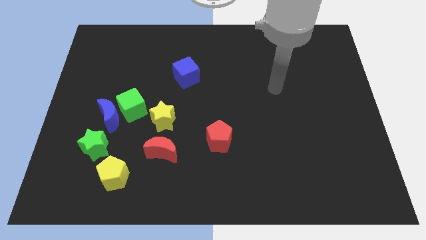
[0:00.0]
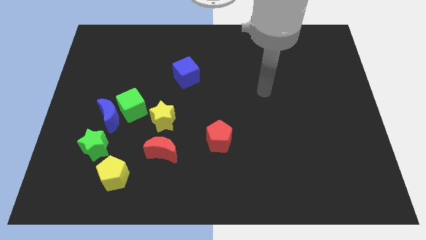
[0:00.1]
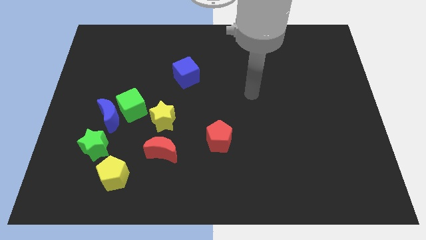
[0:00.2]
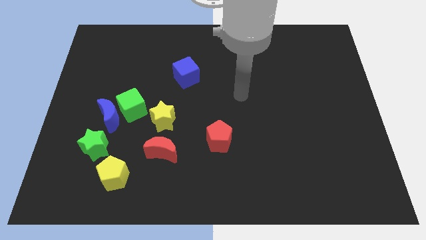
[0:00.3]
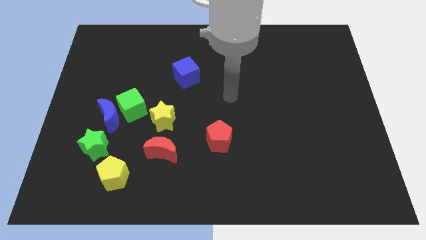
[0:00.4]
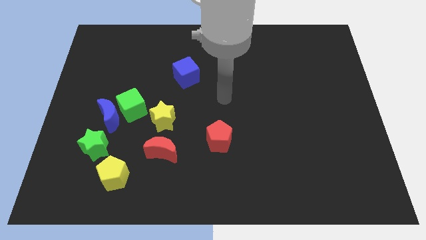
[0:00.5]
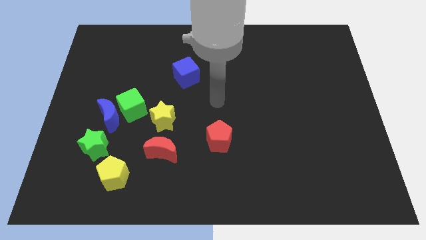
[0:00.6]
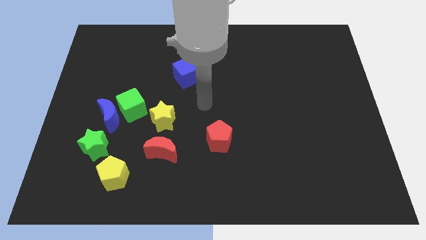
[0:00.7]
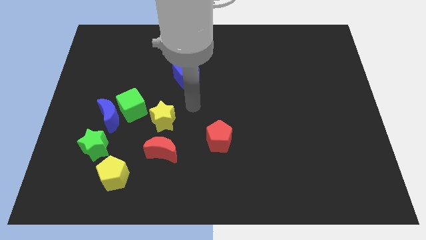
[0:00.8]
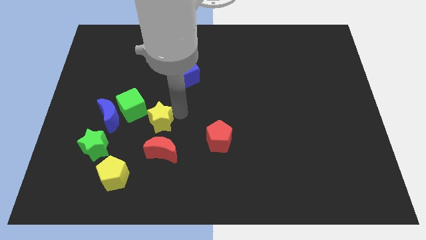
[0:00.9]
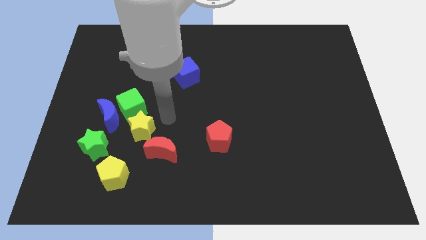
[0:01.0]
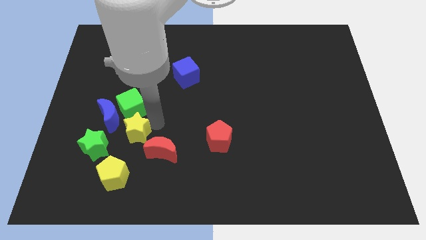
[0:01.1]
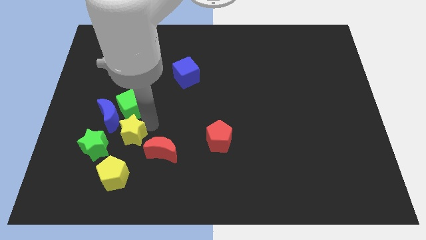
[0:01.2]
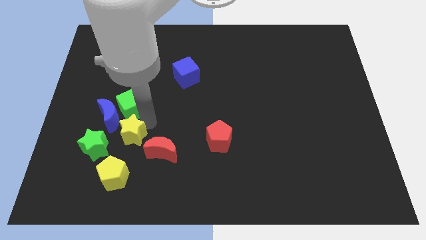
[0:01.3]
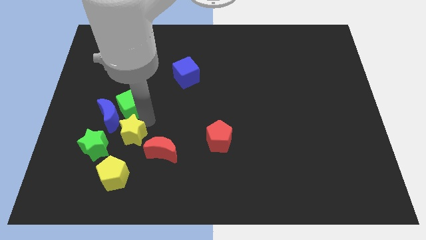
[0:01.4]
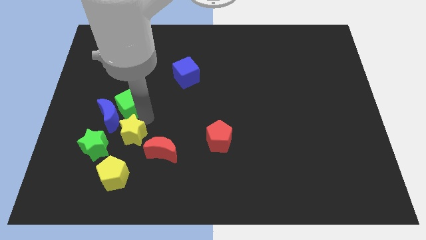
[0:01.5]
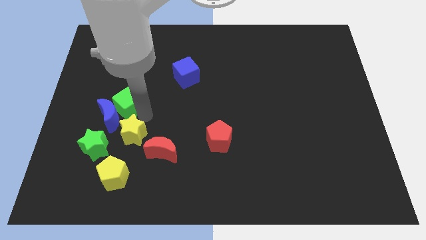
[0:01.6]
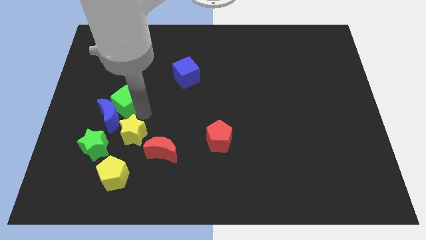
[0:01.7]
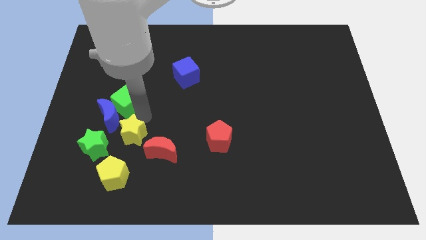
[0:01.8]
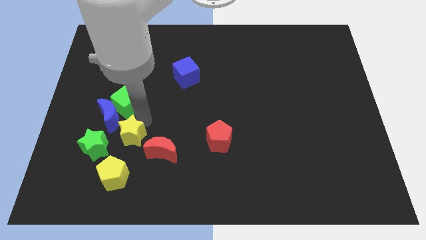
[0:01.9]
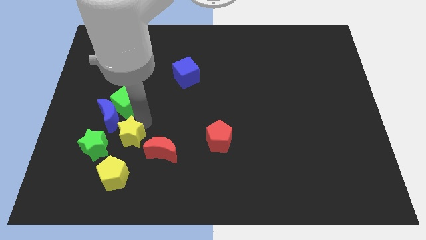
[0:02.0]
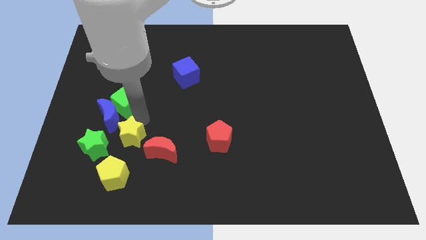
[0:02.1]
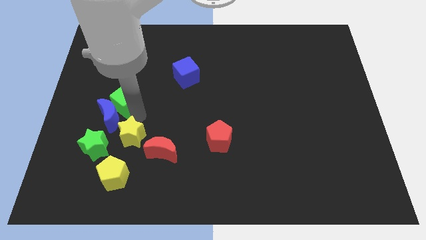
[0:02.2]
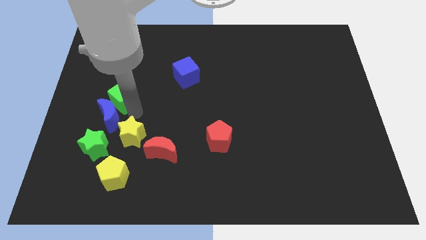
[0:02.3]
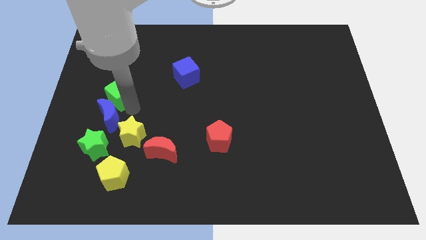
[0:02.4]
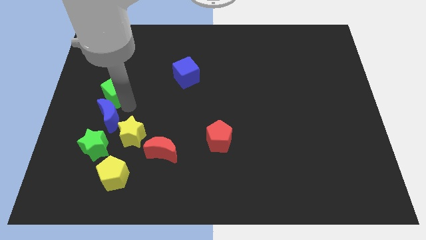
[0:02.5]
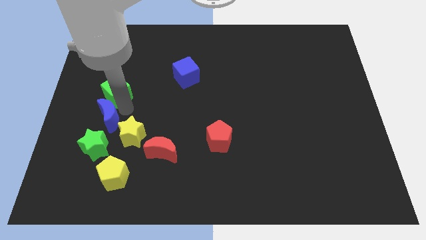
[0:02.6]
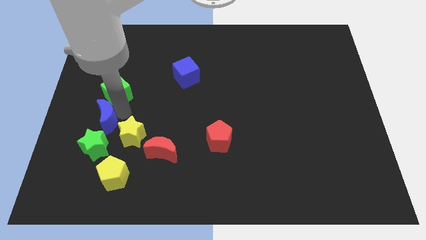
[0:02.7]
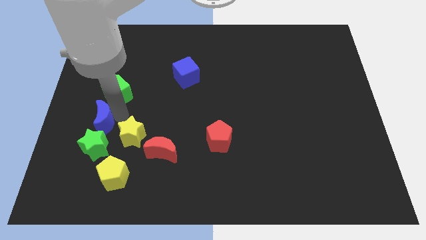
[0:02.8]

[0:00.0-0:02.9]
separate the green cube from the blue moon and yellow star

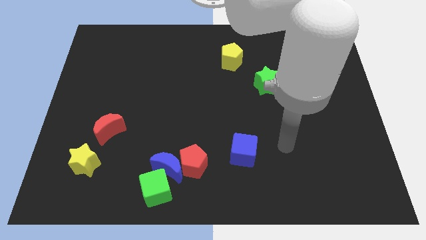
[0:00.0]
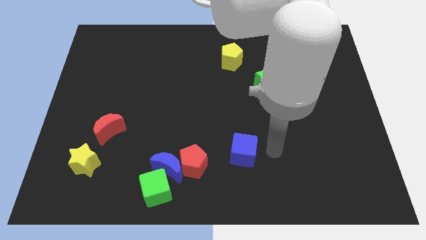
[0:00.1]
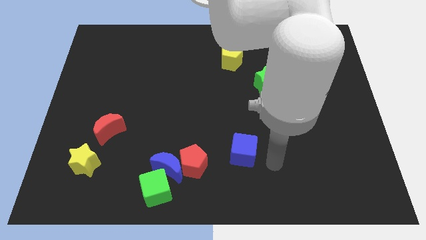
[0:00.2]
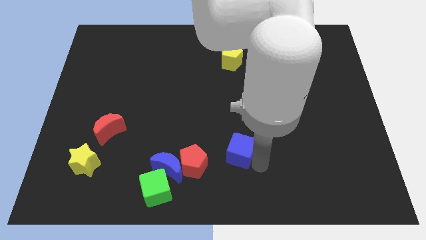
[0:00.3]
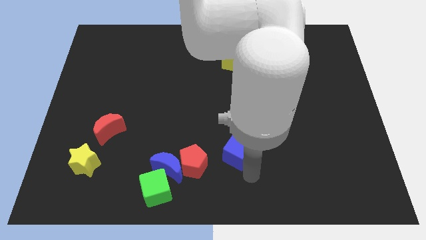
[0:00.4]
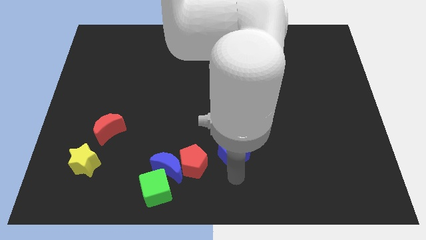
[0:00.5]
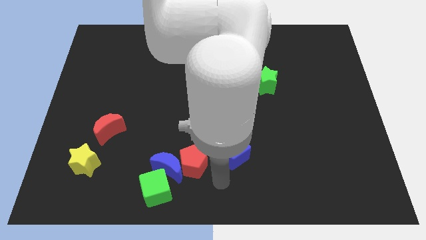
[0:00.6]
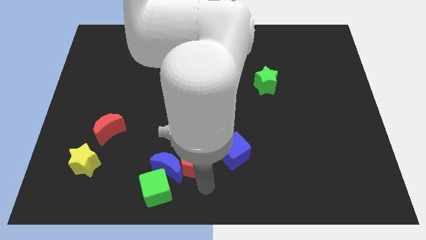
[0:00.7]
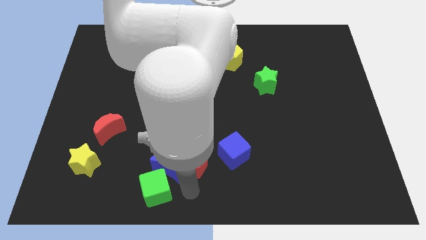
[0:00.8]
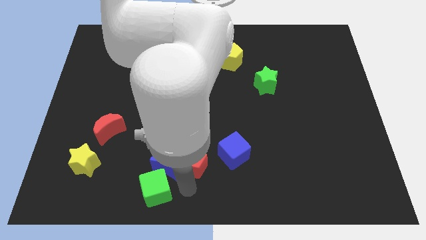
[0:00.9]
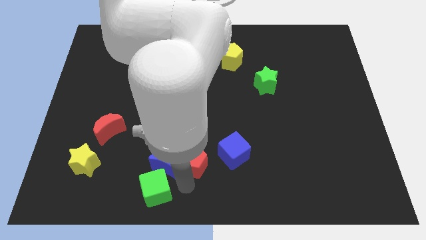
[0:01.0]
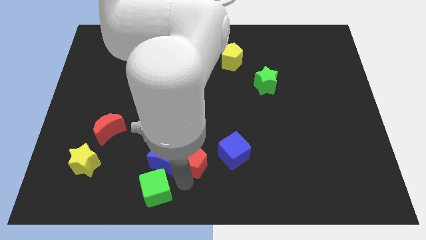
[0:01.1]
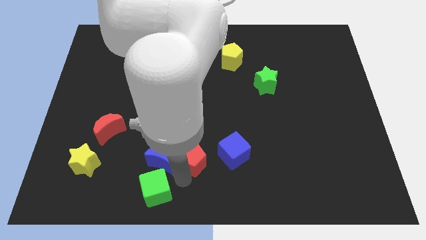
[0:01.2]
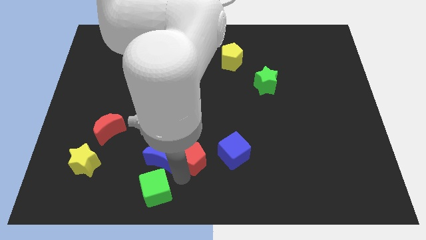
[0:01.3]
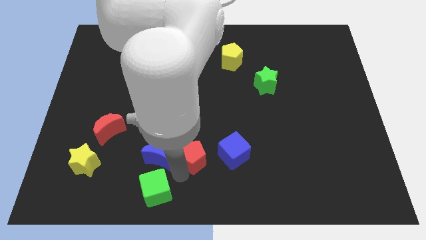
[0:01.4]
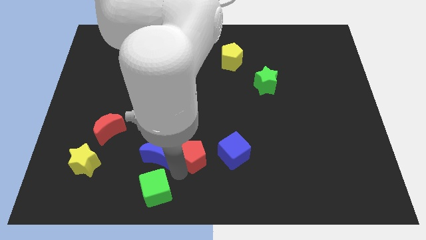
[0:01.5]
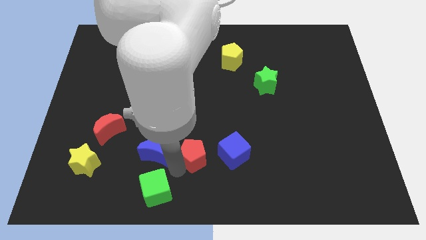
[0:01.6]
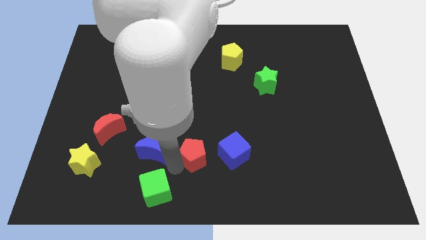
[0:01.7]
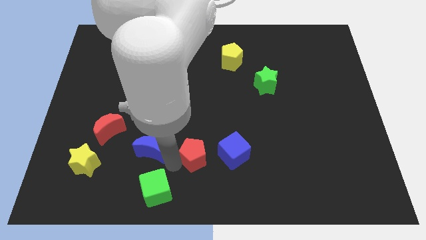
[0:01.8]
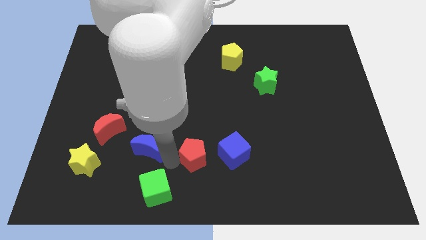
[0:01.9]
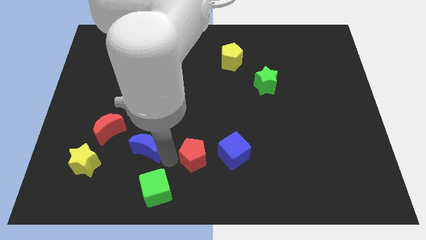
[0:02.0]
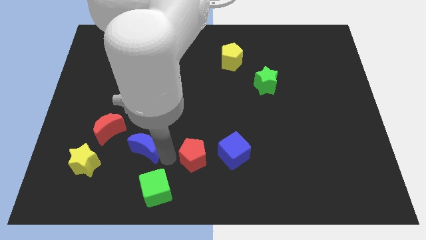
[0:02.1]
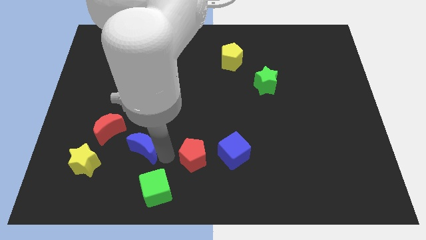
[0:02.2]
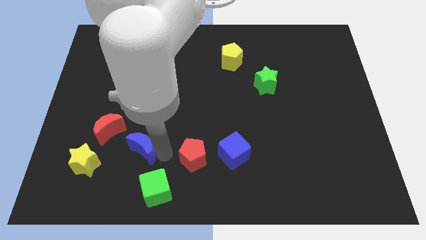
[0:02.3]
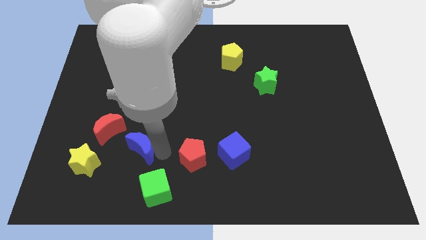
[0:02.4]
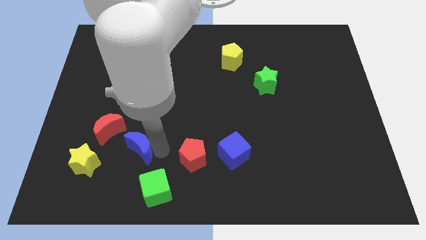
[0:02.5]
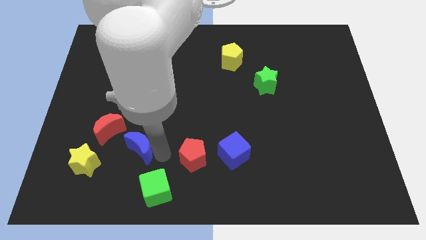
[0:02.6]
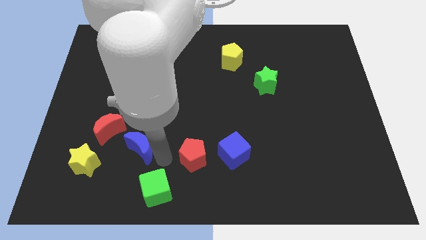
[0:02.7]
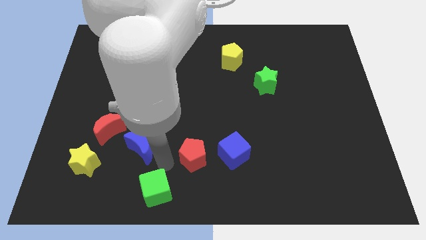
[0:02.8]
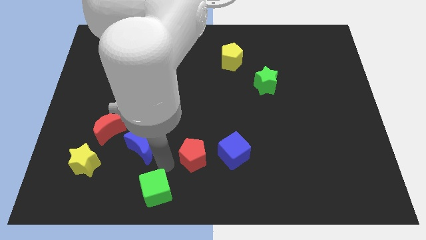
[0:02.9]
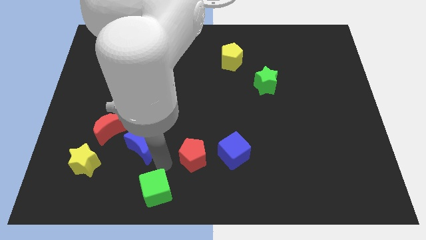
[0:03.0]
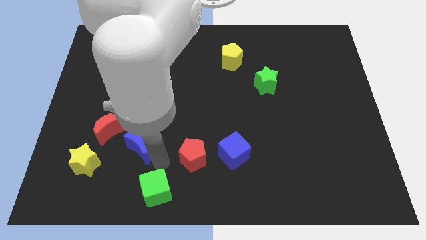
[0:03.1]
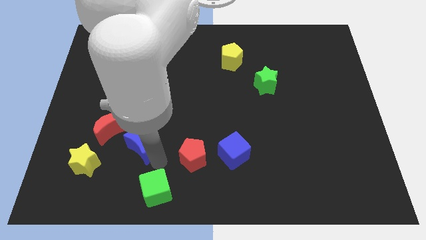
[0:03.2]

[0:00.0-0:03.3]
move the blue moon away from the red pentagon and green cube

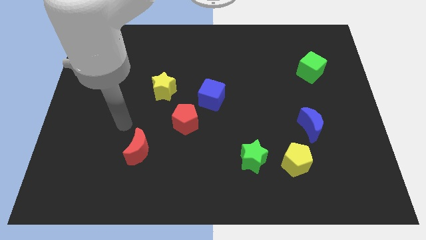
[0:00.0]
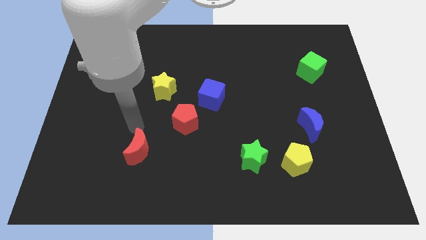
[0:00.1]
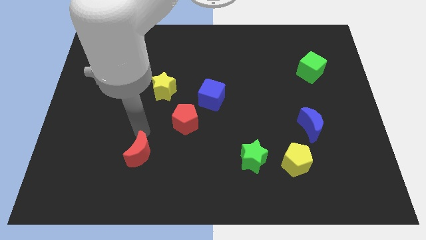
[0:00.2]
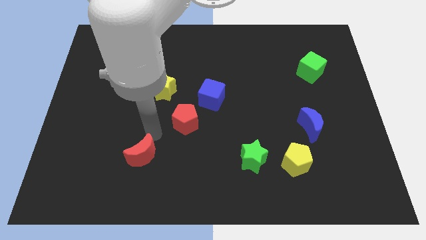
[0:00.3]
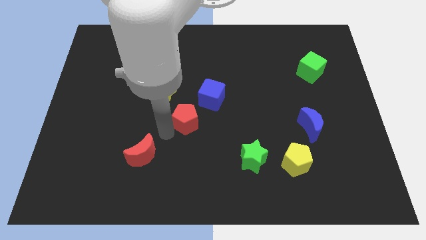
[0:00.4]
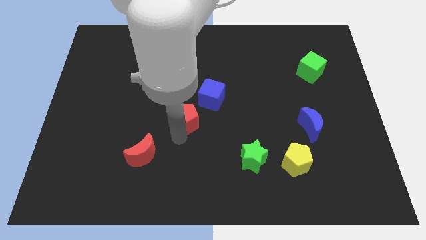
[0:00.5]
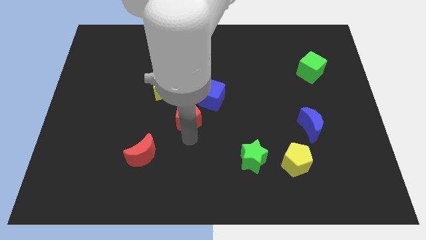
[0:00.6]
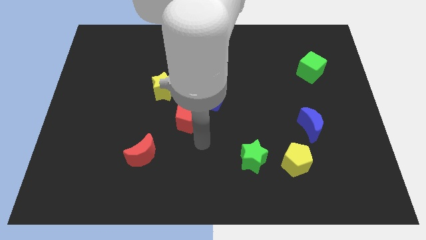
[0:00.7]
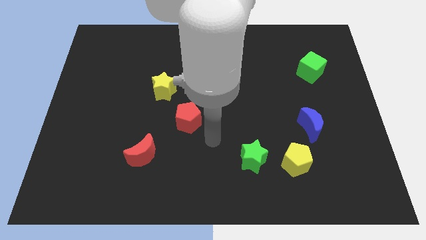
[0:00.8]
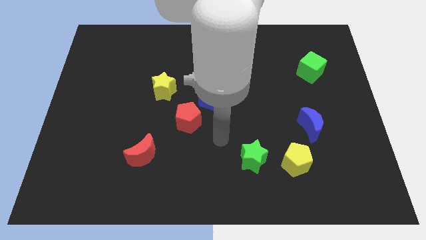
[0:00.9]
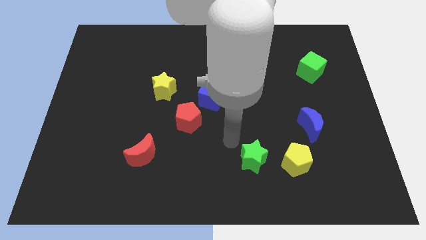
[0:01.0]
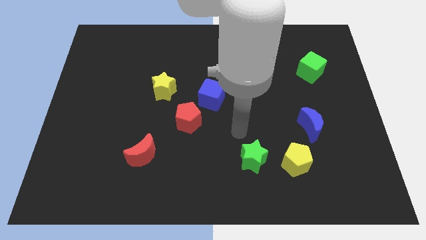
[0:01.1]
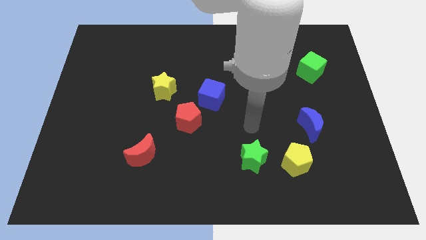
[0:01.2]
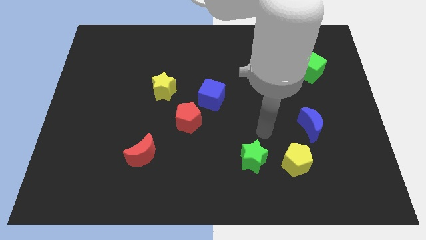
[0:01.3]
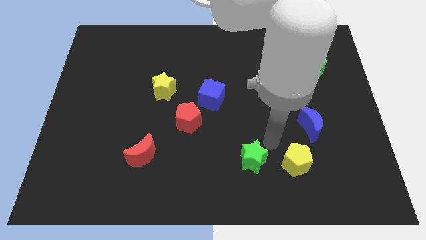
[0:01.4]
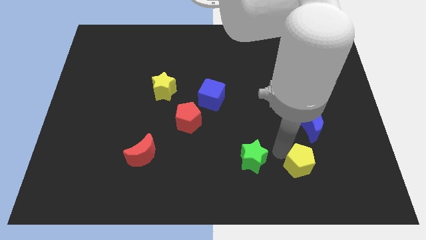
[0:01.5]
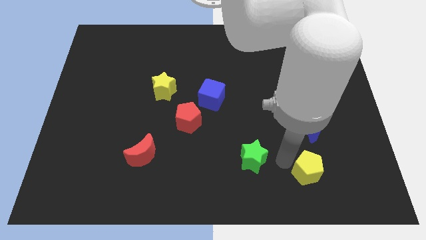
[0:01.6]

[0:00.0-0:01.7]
pull the green star apart from the yellow pentagon

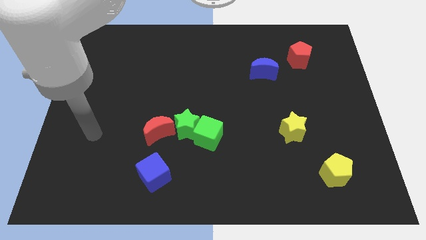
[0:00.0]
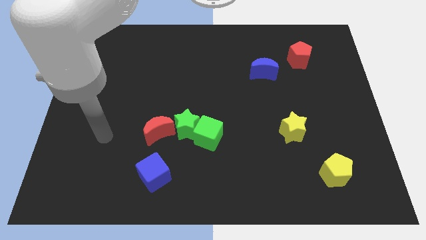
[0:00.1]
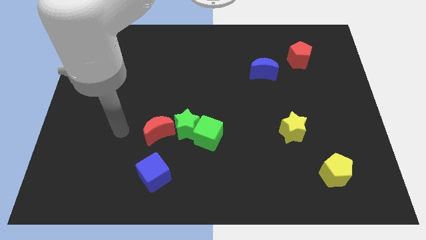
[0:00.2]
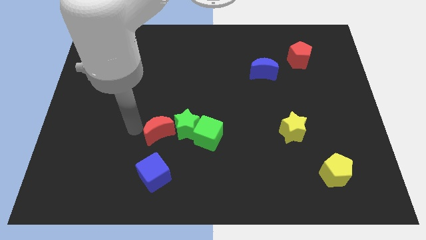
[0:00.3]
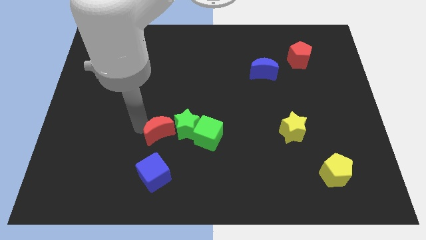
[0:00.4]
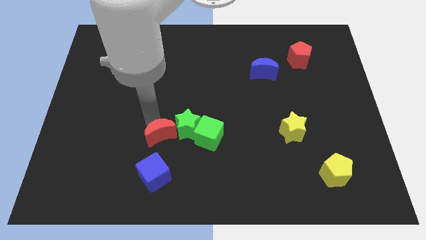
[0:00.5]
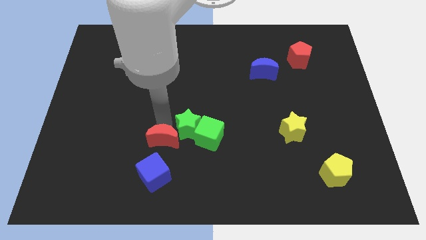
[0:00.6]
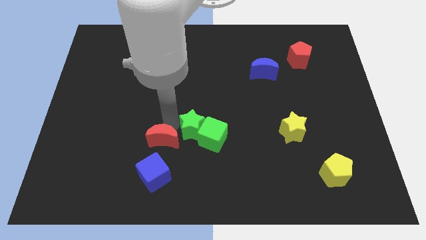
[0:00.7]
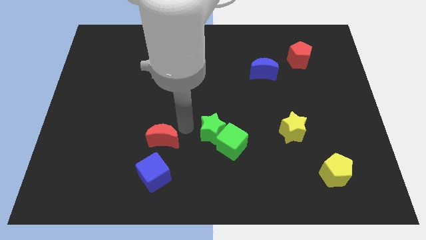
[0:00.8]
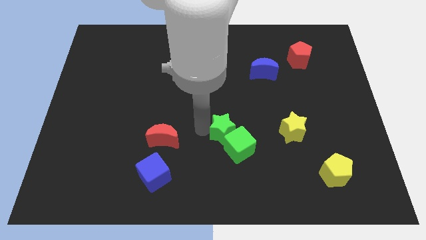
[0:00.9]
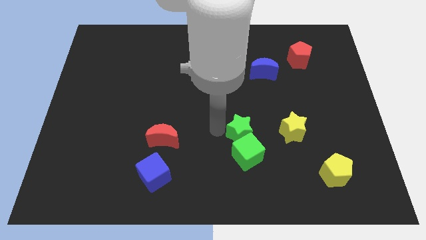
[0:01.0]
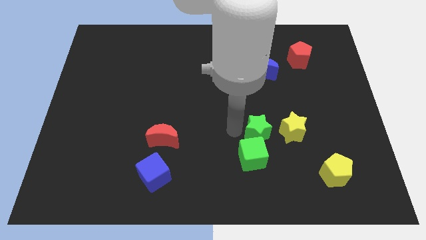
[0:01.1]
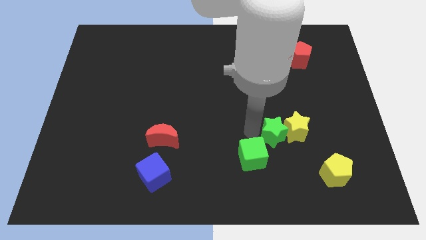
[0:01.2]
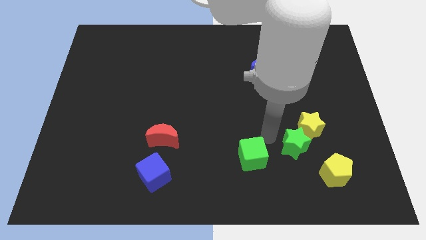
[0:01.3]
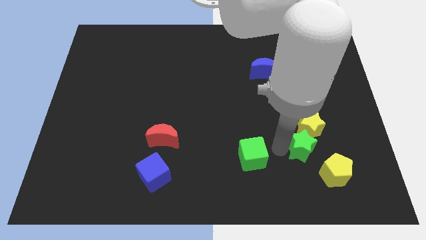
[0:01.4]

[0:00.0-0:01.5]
separate the green cube from the green star
